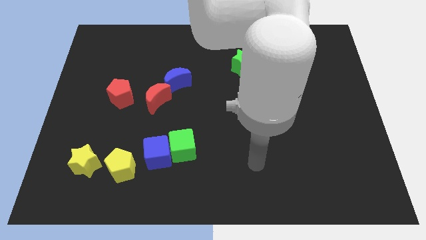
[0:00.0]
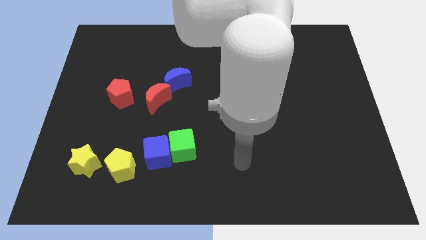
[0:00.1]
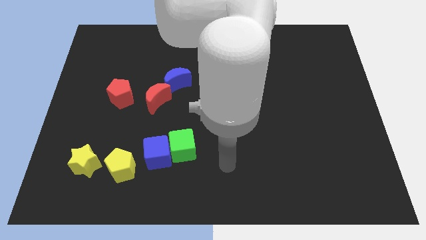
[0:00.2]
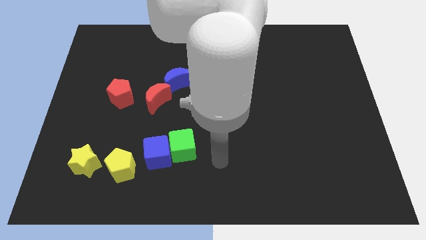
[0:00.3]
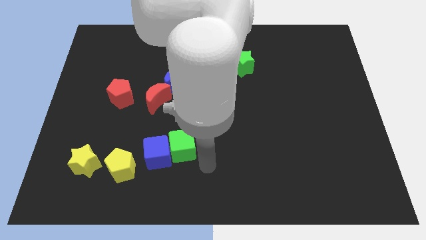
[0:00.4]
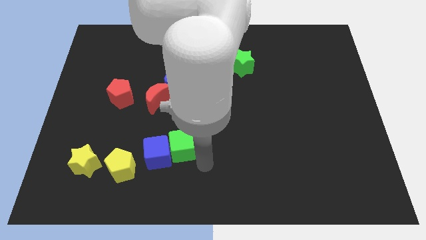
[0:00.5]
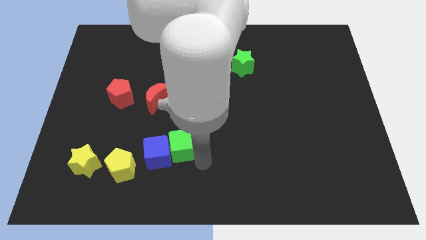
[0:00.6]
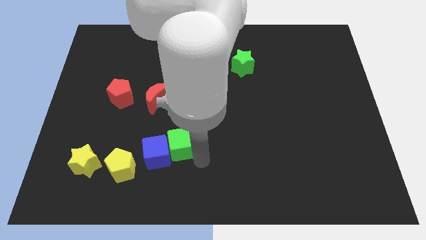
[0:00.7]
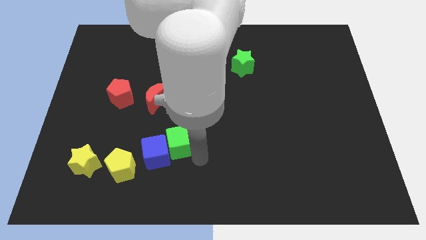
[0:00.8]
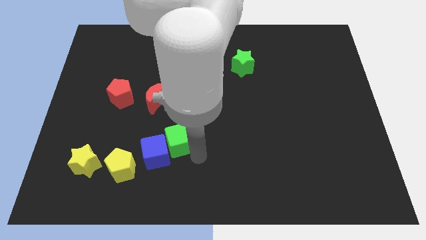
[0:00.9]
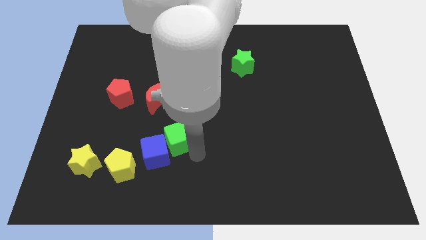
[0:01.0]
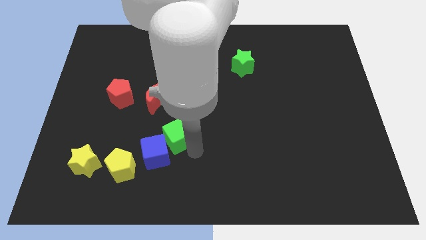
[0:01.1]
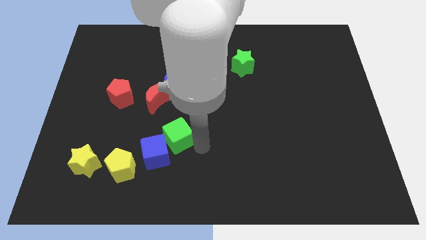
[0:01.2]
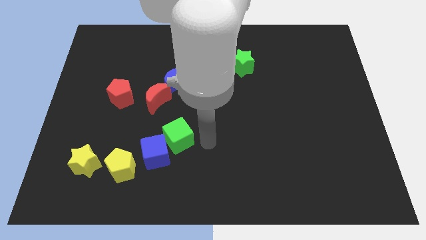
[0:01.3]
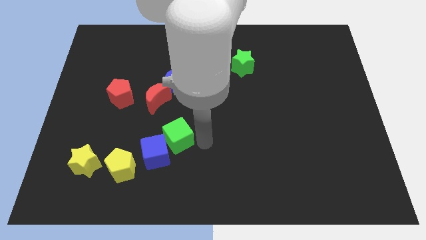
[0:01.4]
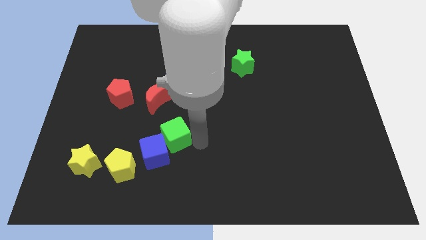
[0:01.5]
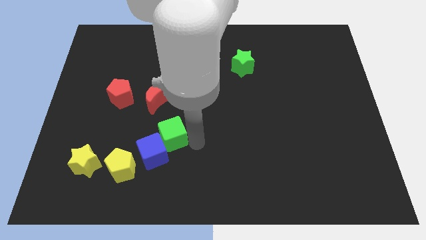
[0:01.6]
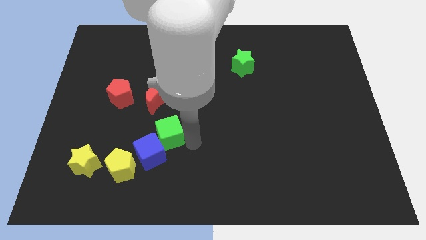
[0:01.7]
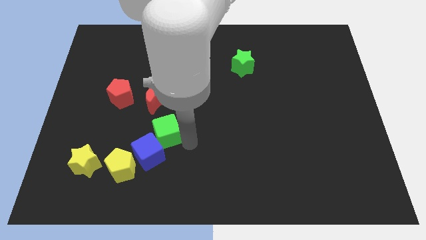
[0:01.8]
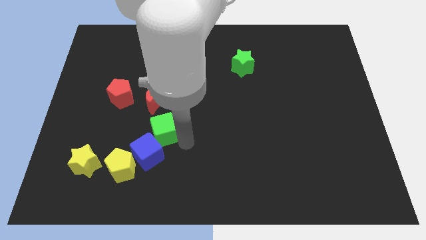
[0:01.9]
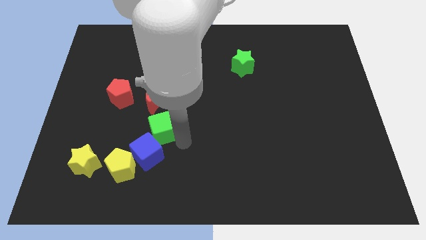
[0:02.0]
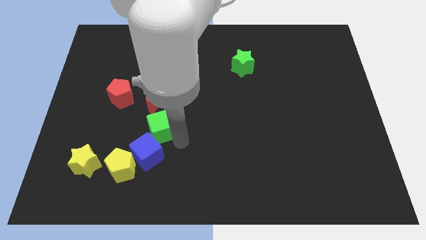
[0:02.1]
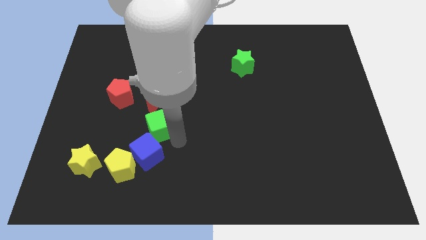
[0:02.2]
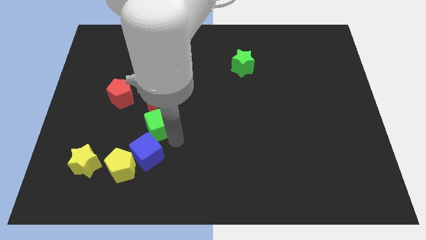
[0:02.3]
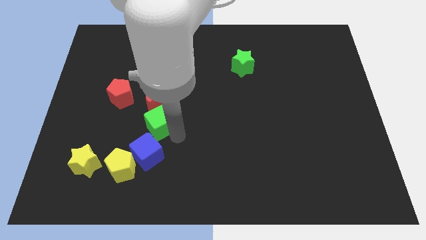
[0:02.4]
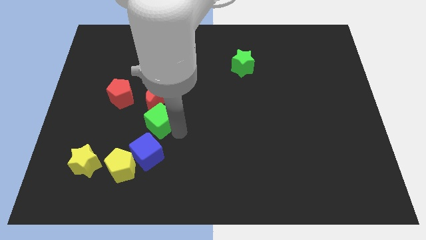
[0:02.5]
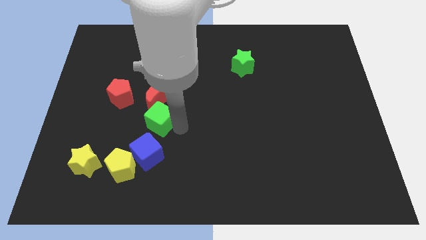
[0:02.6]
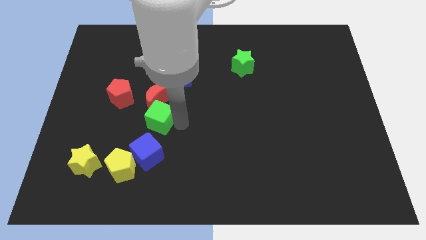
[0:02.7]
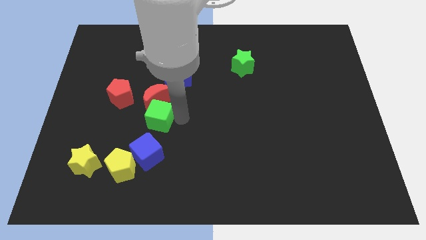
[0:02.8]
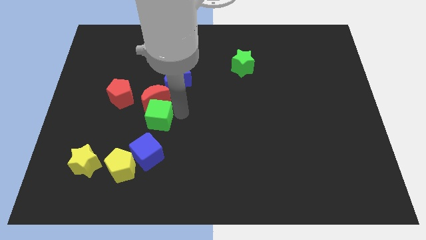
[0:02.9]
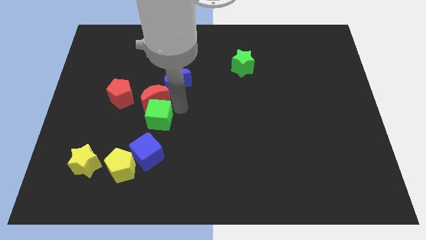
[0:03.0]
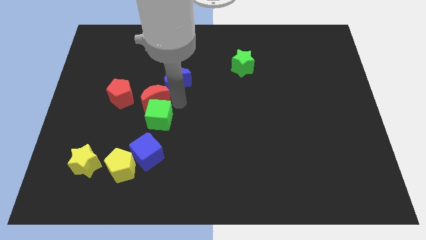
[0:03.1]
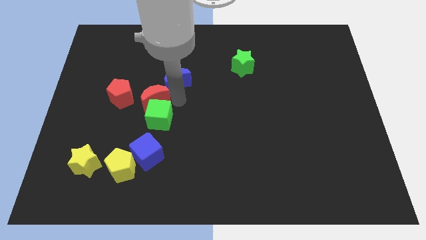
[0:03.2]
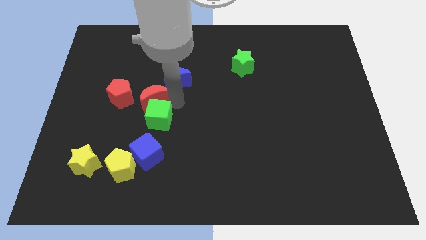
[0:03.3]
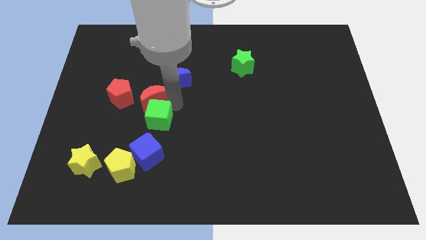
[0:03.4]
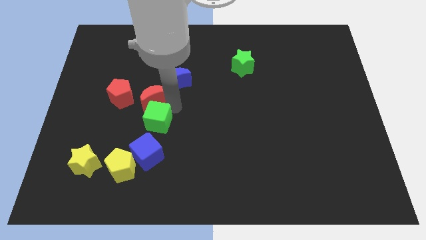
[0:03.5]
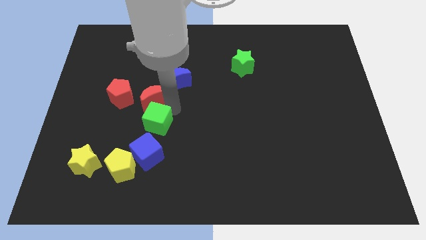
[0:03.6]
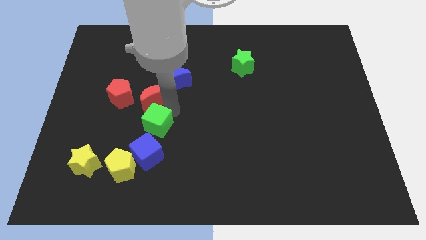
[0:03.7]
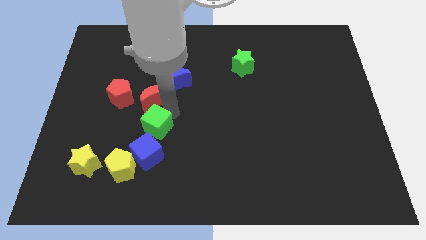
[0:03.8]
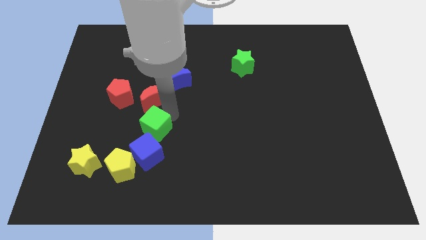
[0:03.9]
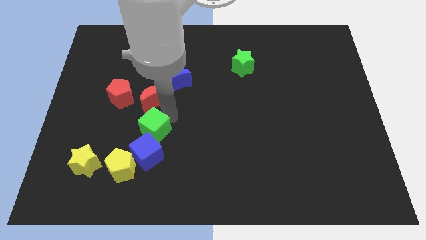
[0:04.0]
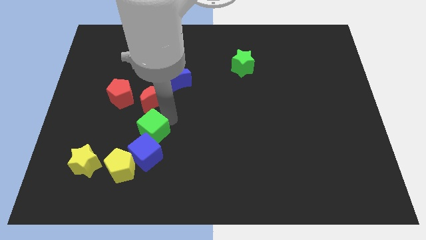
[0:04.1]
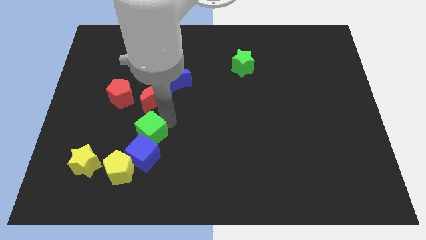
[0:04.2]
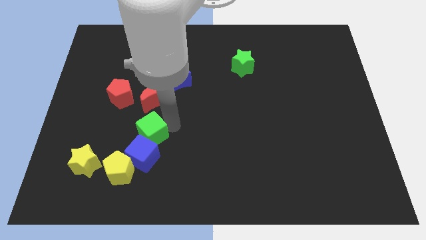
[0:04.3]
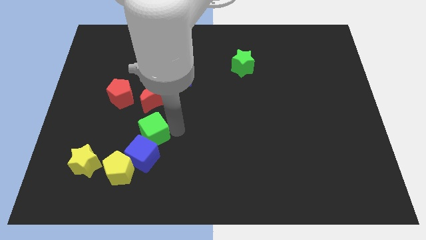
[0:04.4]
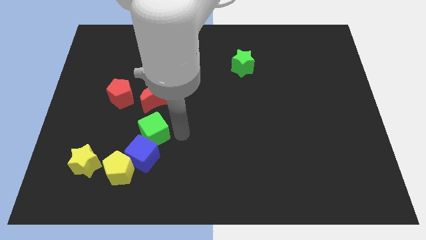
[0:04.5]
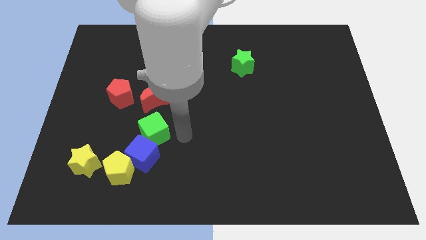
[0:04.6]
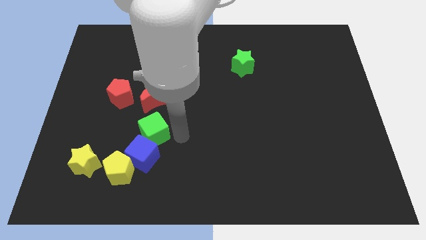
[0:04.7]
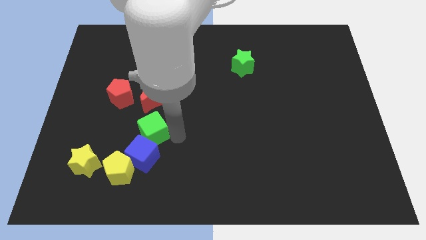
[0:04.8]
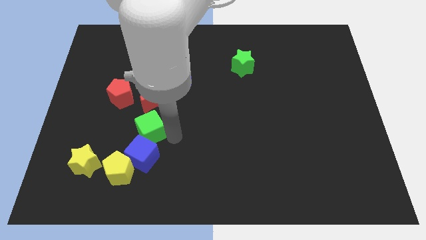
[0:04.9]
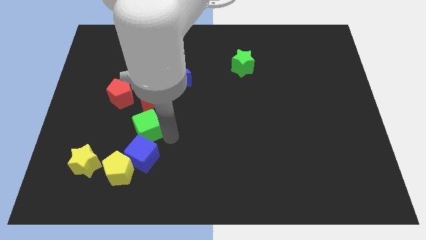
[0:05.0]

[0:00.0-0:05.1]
put the green cube above the yellow pentagon

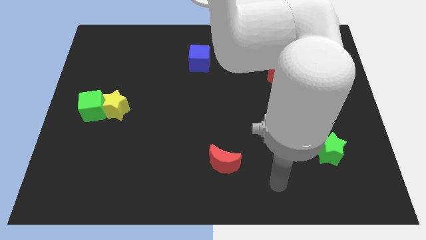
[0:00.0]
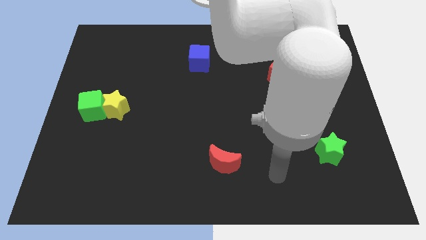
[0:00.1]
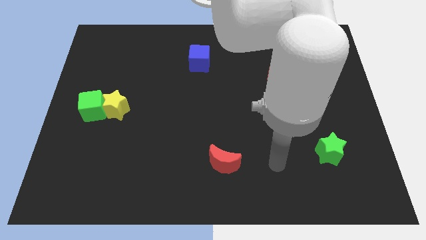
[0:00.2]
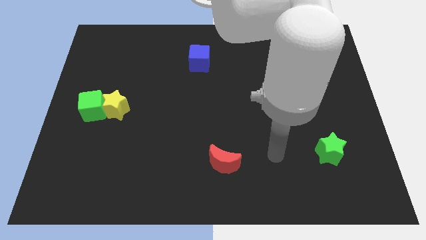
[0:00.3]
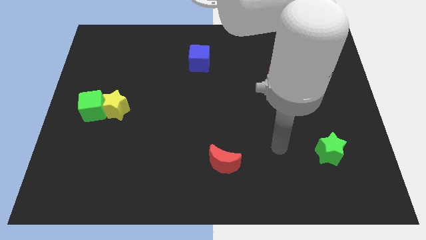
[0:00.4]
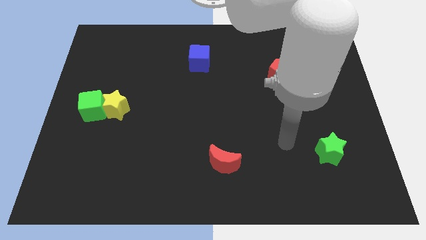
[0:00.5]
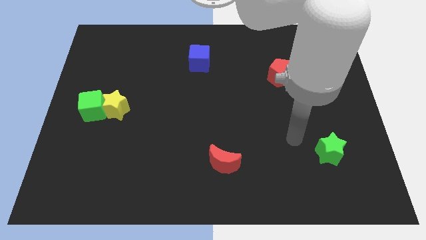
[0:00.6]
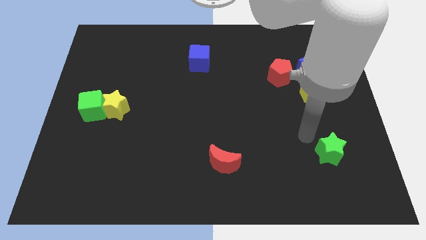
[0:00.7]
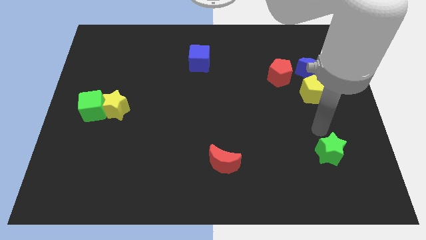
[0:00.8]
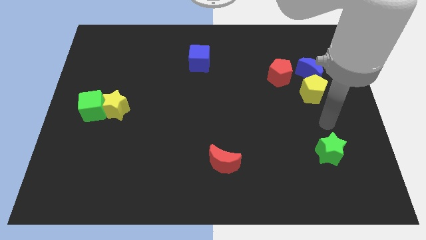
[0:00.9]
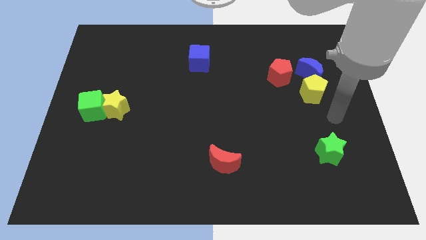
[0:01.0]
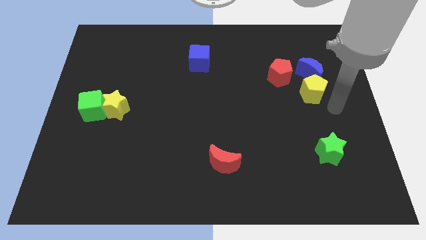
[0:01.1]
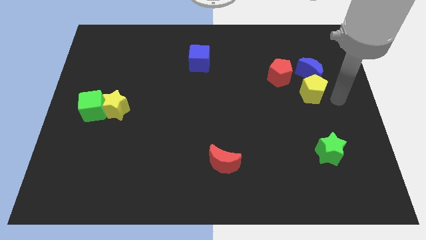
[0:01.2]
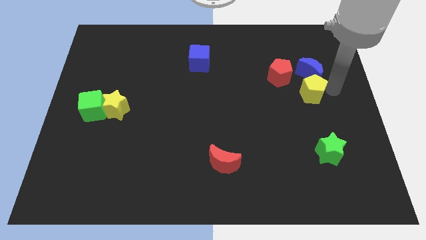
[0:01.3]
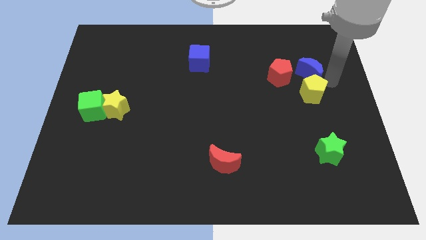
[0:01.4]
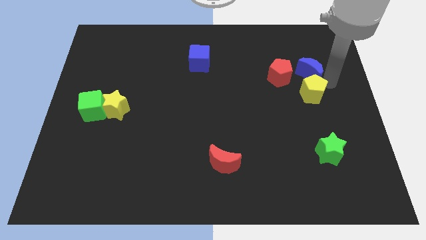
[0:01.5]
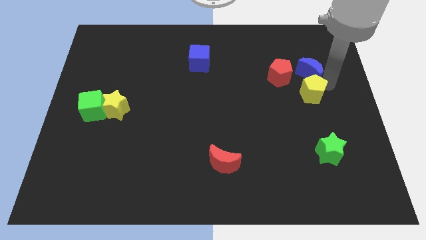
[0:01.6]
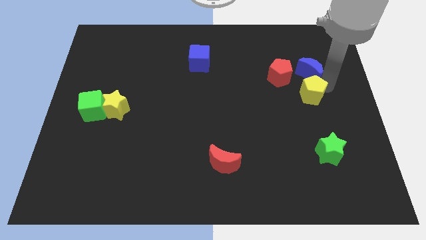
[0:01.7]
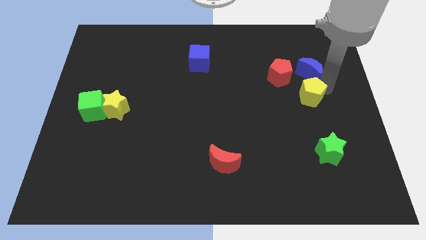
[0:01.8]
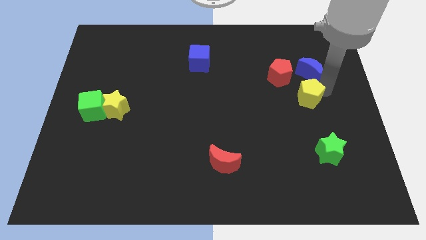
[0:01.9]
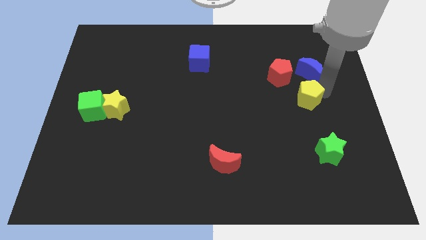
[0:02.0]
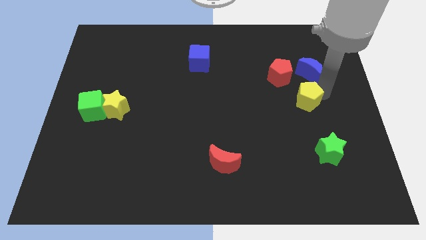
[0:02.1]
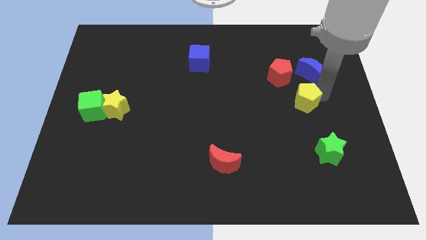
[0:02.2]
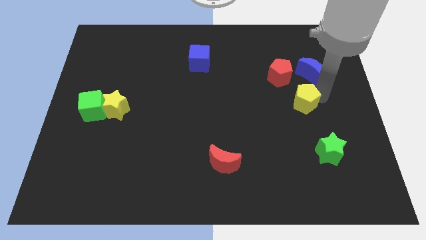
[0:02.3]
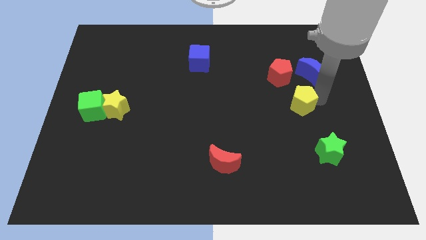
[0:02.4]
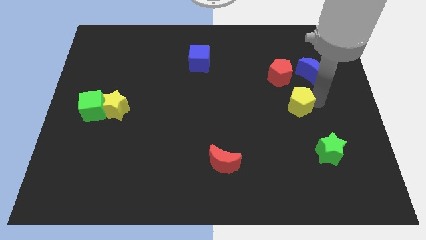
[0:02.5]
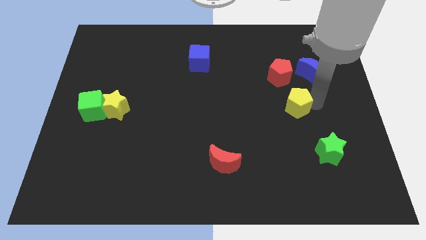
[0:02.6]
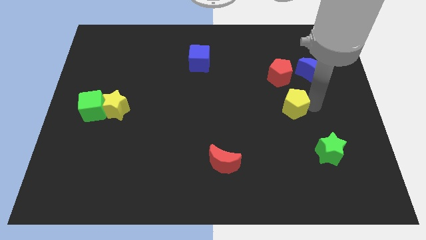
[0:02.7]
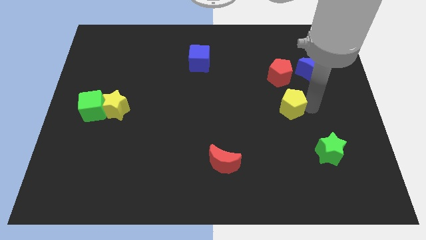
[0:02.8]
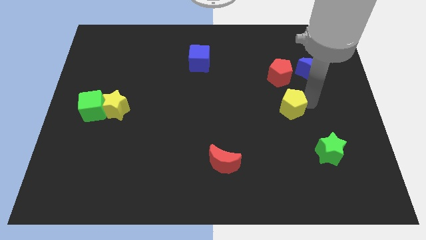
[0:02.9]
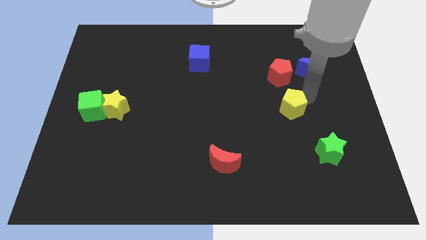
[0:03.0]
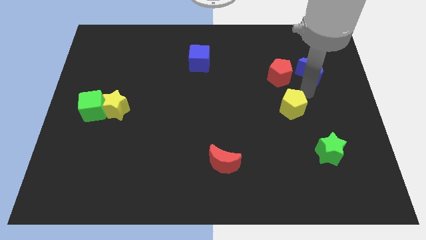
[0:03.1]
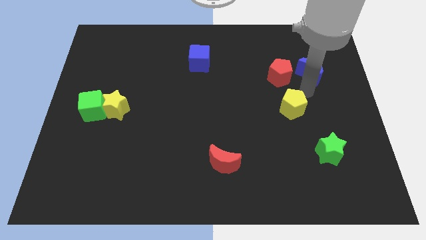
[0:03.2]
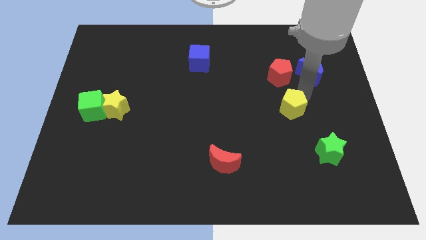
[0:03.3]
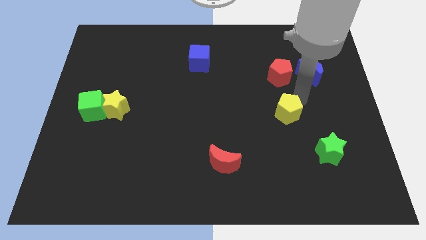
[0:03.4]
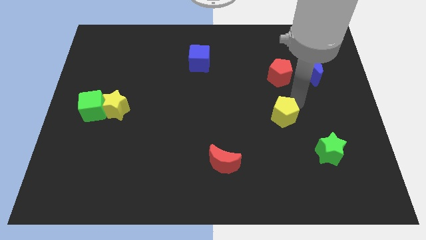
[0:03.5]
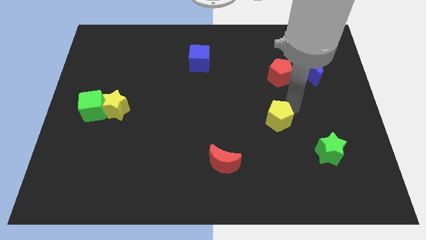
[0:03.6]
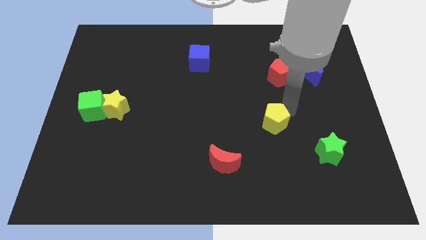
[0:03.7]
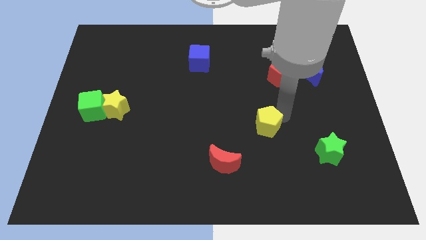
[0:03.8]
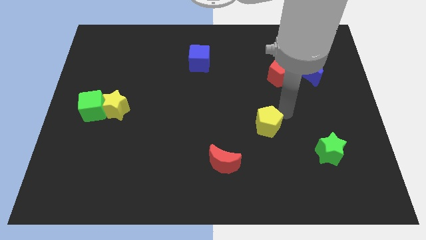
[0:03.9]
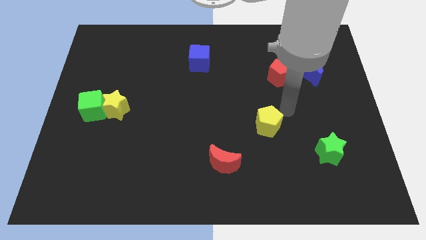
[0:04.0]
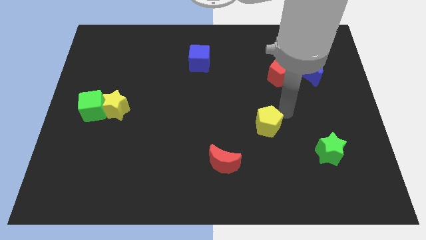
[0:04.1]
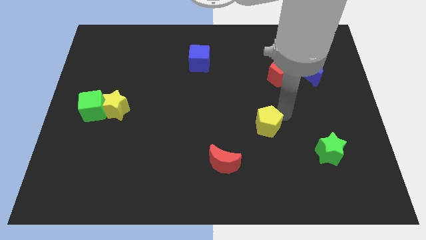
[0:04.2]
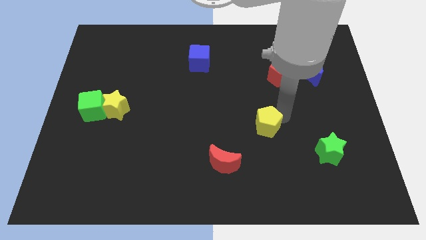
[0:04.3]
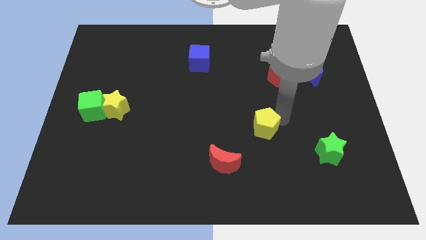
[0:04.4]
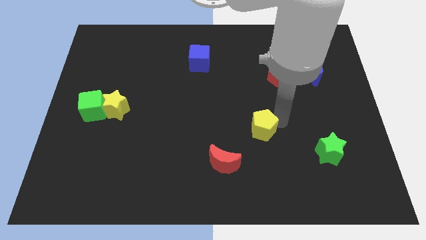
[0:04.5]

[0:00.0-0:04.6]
move the yellow pentagon to the top right of the red moon
